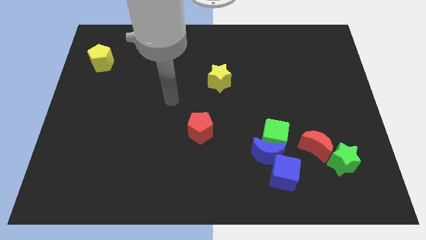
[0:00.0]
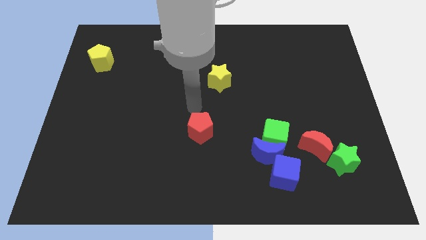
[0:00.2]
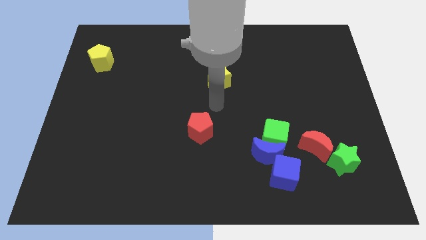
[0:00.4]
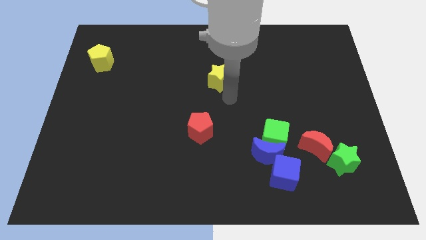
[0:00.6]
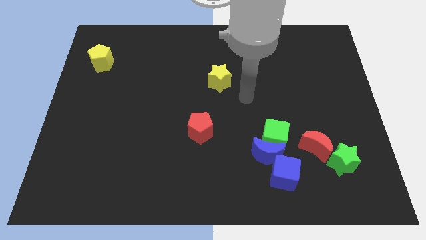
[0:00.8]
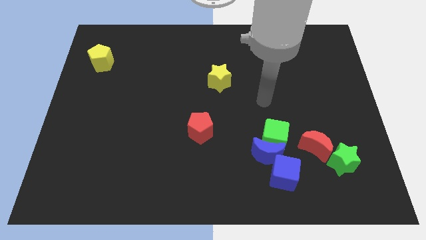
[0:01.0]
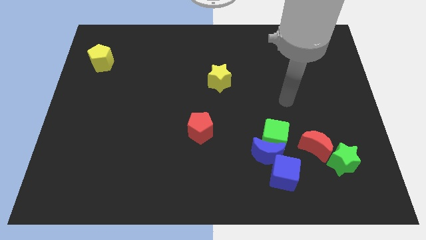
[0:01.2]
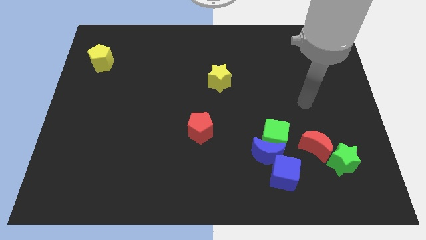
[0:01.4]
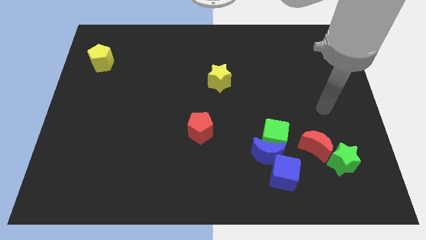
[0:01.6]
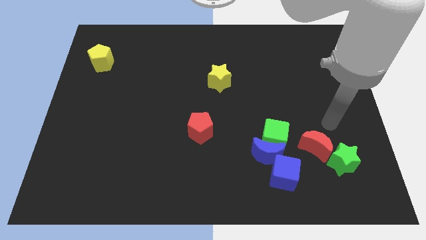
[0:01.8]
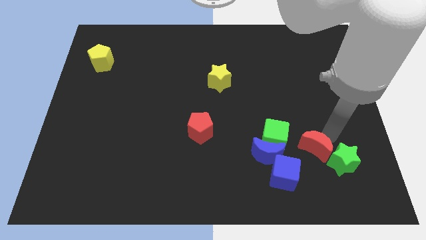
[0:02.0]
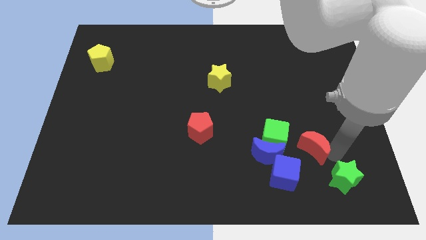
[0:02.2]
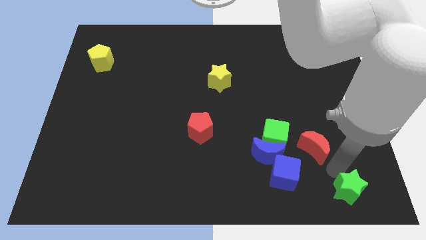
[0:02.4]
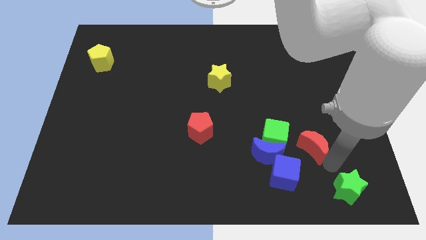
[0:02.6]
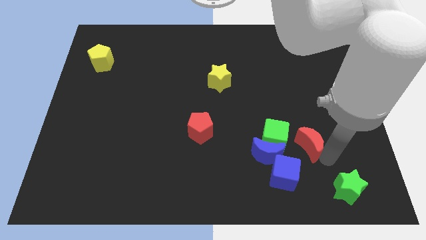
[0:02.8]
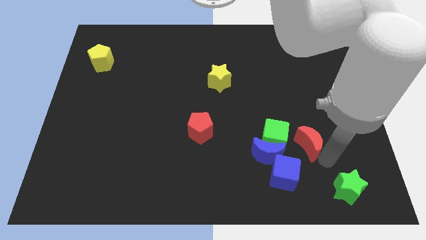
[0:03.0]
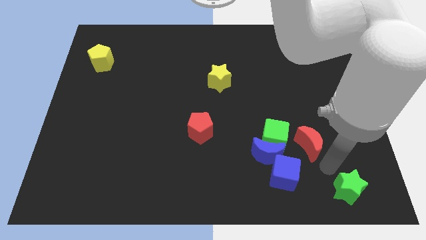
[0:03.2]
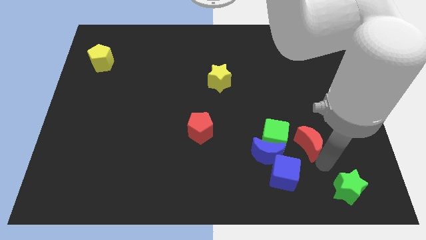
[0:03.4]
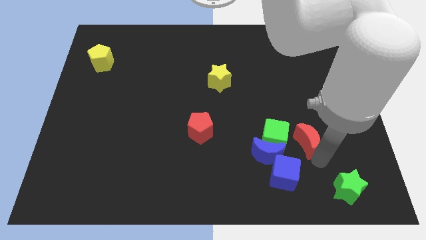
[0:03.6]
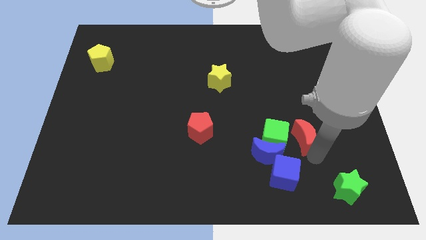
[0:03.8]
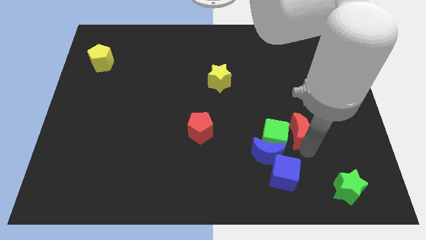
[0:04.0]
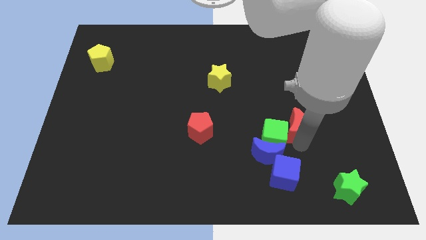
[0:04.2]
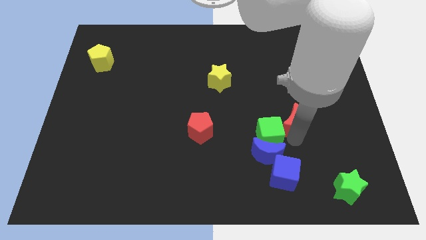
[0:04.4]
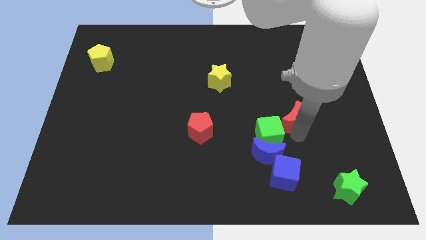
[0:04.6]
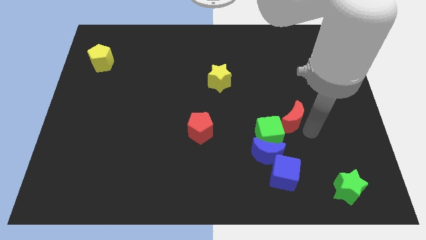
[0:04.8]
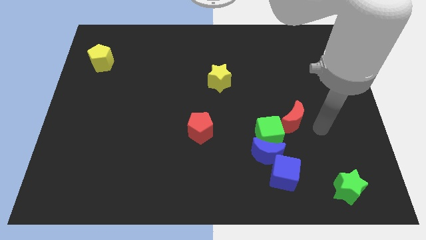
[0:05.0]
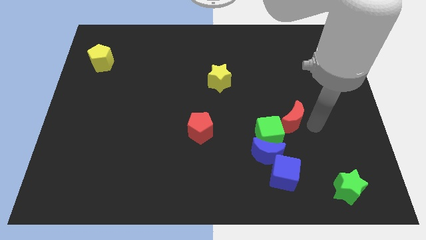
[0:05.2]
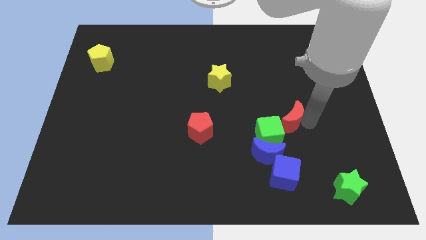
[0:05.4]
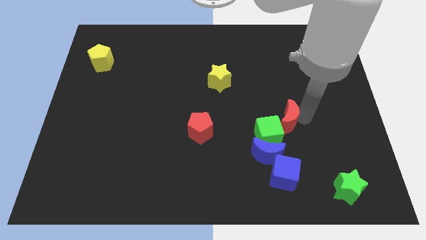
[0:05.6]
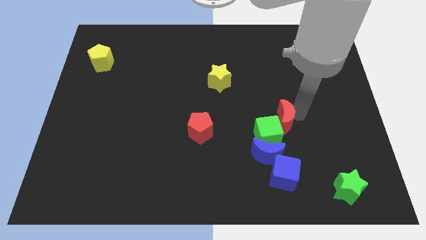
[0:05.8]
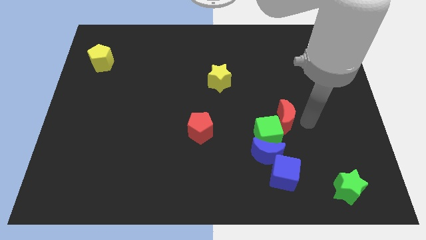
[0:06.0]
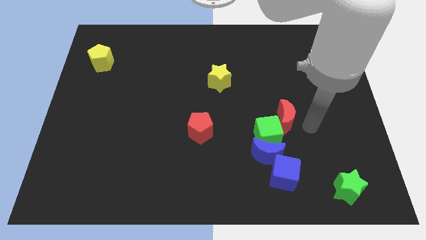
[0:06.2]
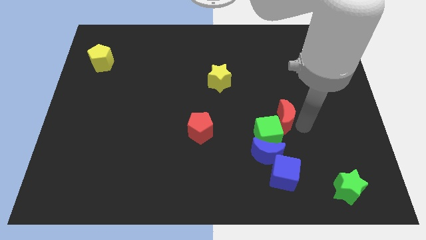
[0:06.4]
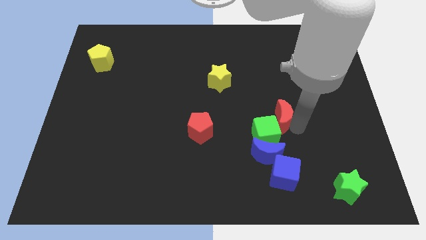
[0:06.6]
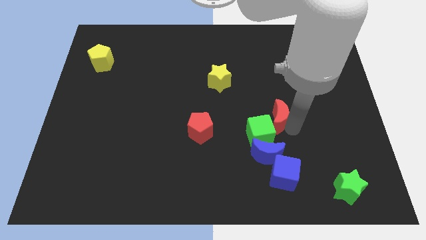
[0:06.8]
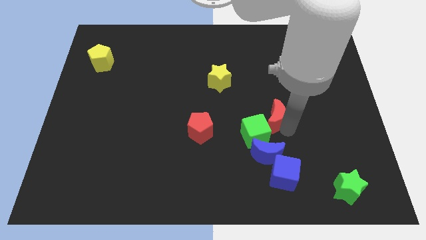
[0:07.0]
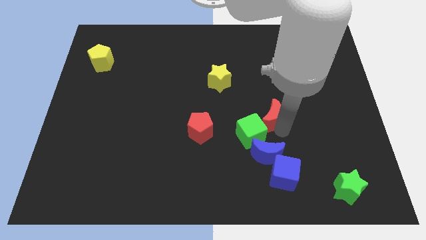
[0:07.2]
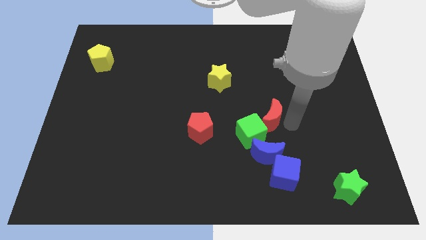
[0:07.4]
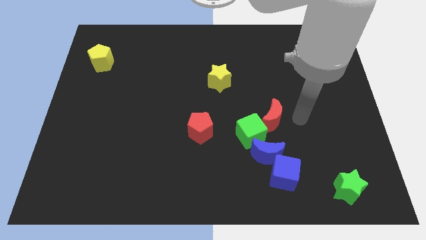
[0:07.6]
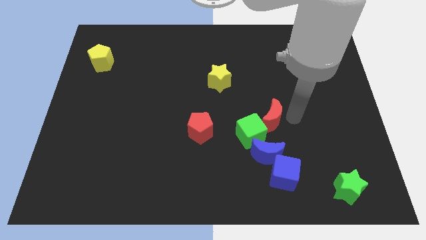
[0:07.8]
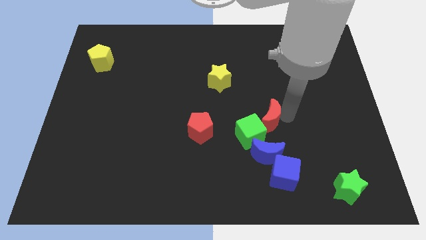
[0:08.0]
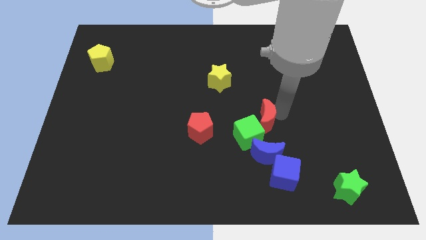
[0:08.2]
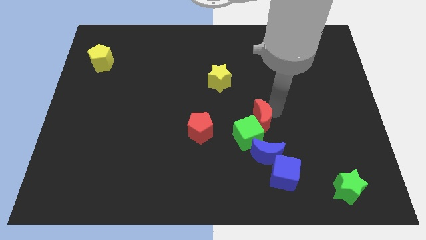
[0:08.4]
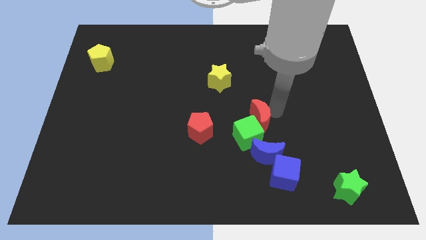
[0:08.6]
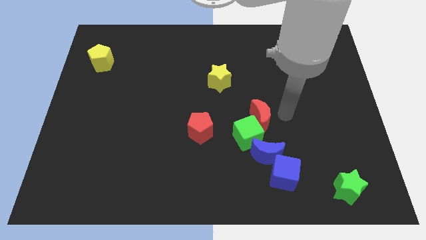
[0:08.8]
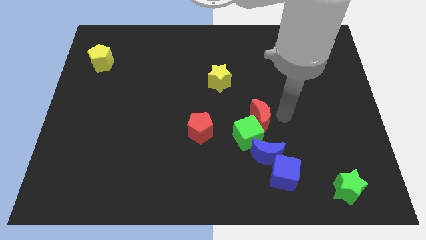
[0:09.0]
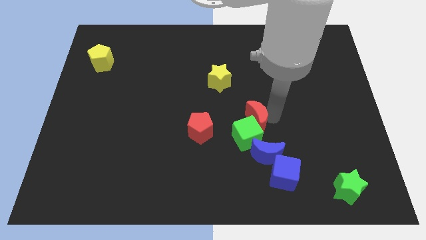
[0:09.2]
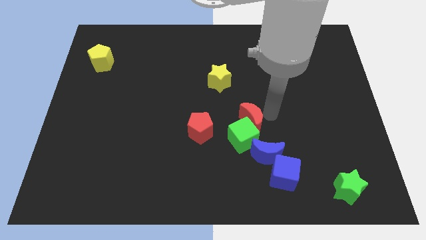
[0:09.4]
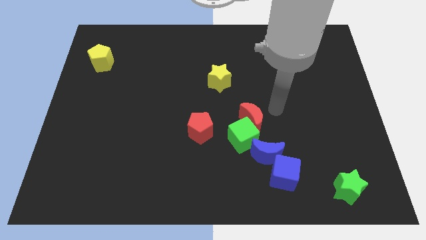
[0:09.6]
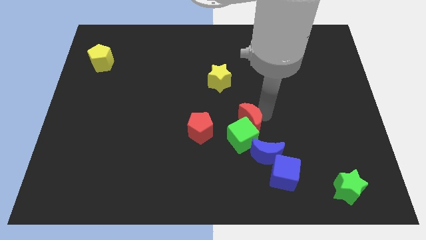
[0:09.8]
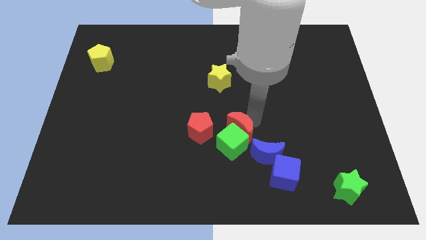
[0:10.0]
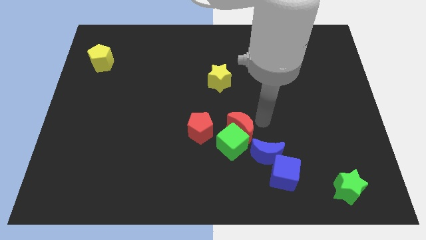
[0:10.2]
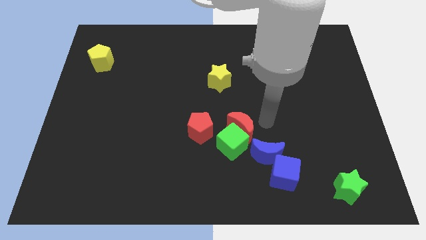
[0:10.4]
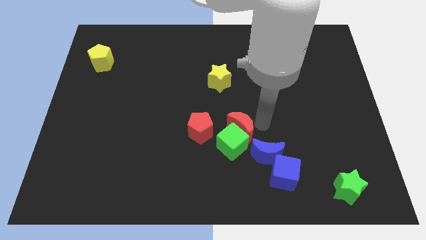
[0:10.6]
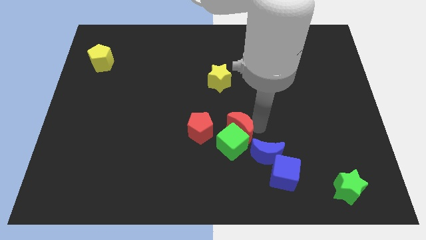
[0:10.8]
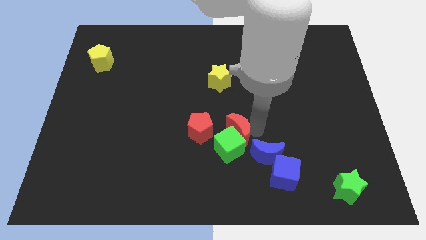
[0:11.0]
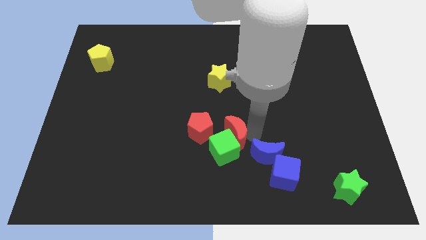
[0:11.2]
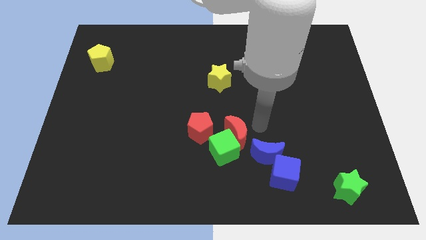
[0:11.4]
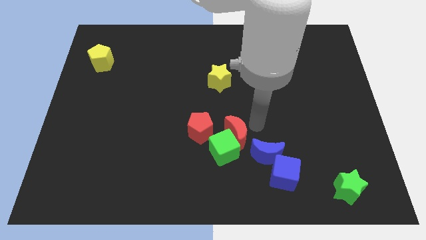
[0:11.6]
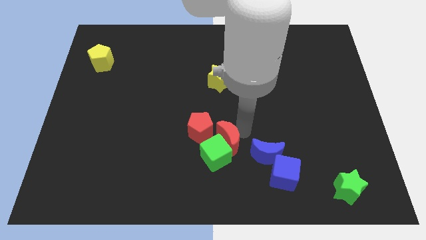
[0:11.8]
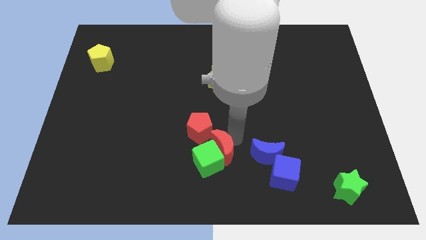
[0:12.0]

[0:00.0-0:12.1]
slide the red moon to the left

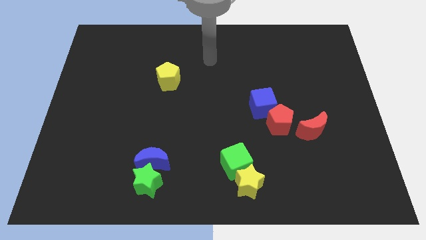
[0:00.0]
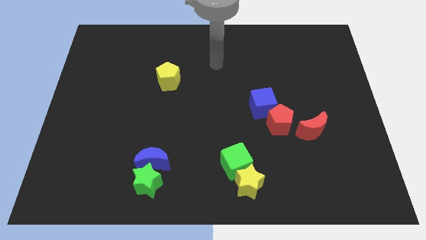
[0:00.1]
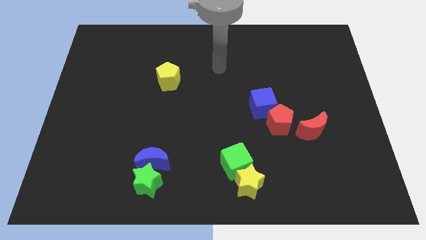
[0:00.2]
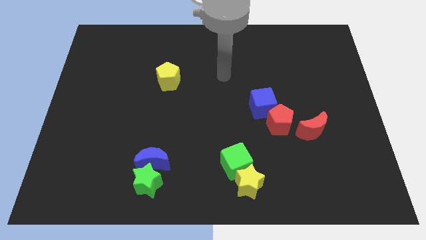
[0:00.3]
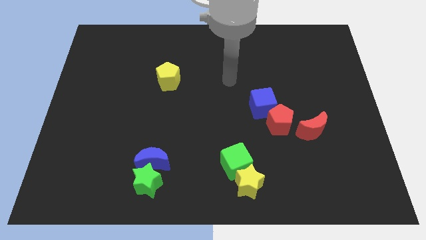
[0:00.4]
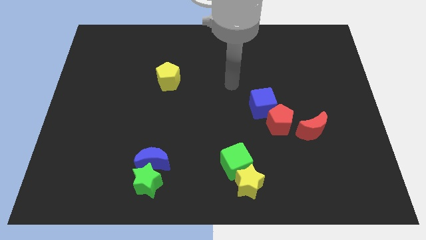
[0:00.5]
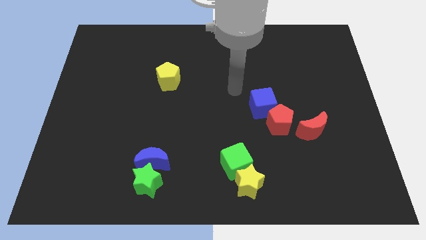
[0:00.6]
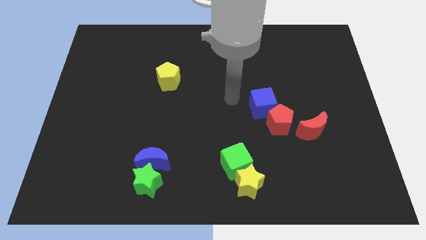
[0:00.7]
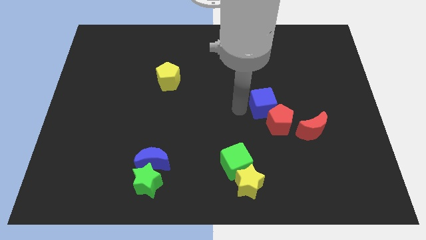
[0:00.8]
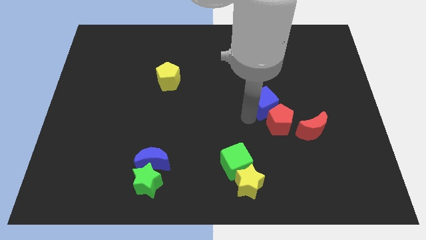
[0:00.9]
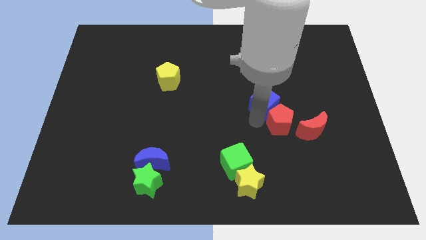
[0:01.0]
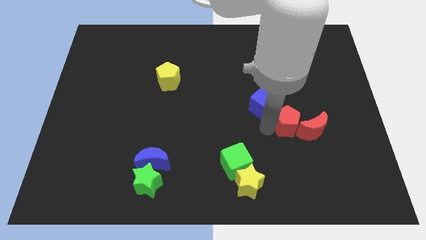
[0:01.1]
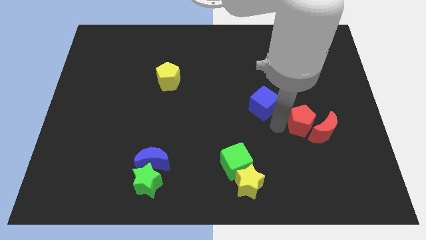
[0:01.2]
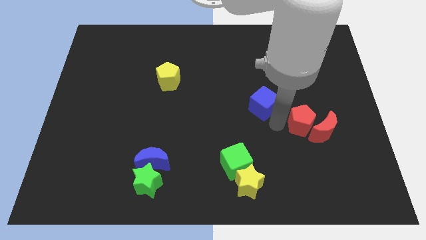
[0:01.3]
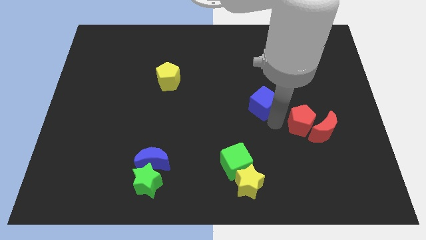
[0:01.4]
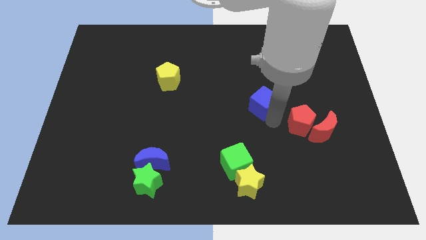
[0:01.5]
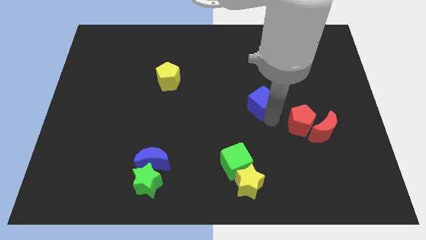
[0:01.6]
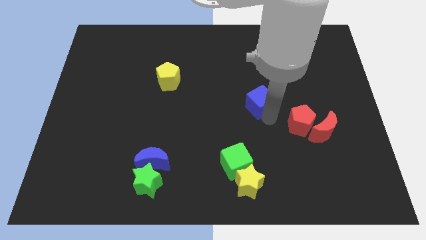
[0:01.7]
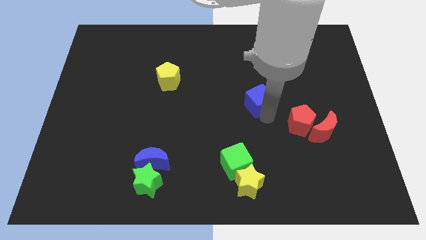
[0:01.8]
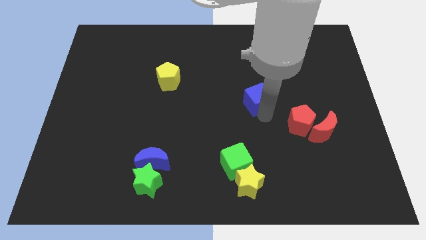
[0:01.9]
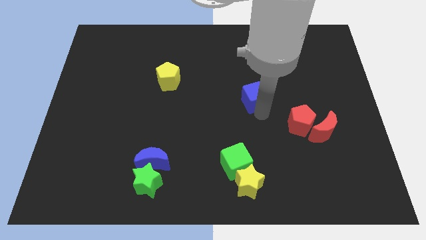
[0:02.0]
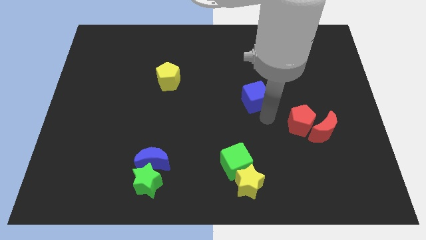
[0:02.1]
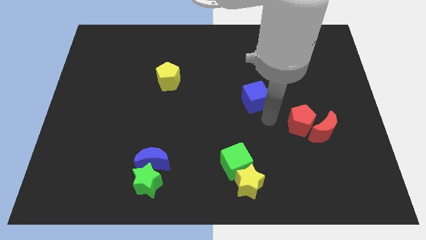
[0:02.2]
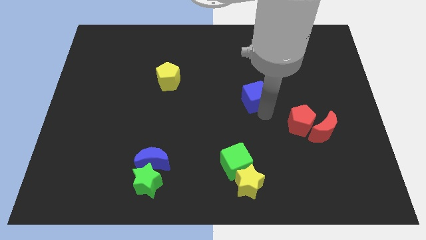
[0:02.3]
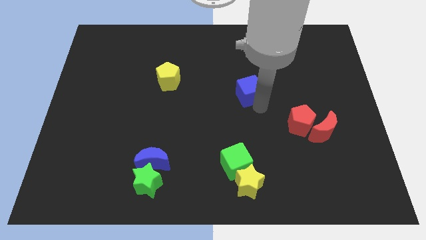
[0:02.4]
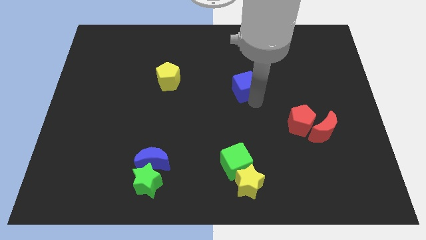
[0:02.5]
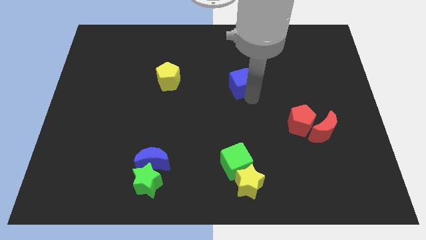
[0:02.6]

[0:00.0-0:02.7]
push the blue cube upwards and to the left a little
